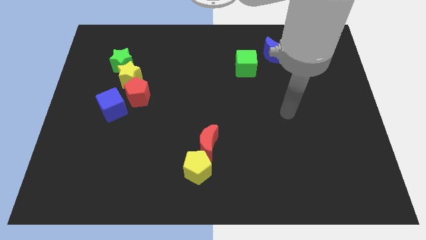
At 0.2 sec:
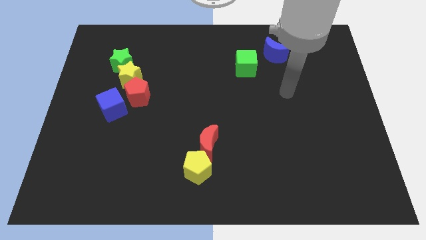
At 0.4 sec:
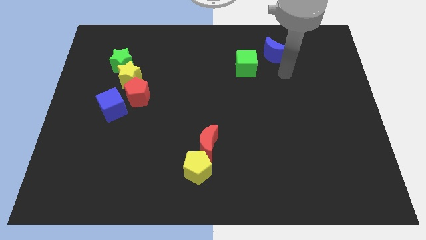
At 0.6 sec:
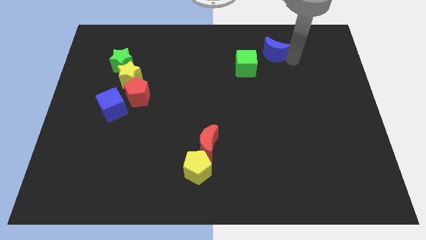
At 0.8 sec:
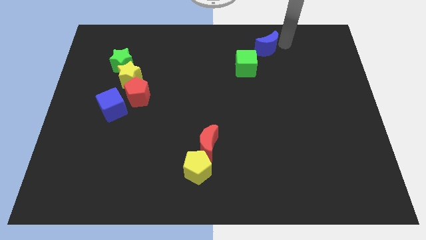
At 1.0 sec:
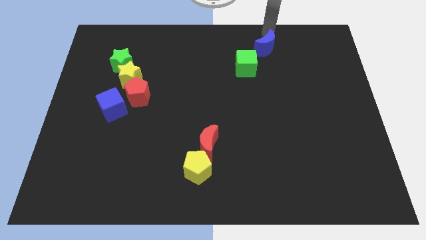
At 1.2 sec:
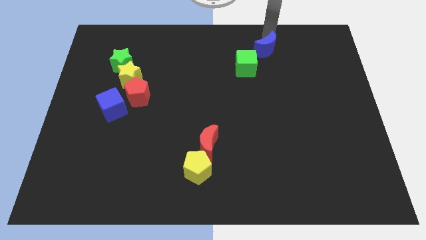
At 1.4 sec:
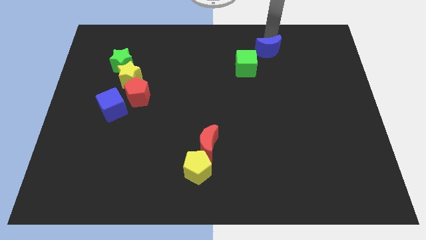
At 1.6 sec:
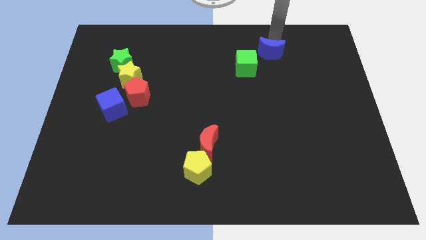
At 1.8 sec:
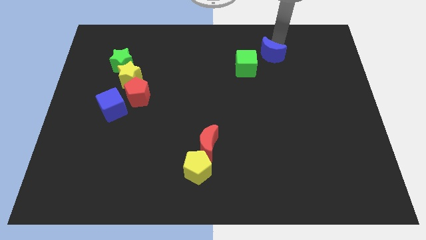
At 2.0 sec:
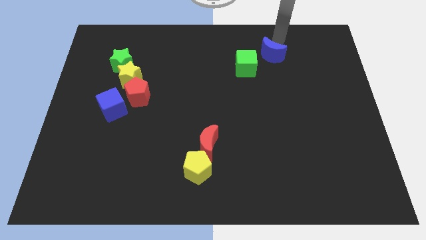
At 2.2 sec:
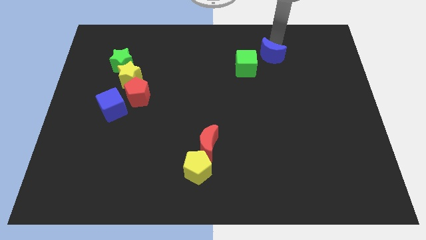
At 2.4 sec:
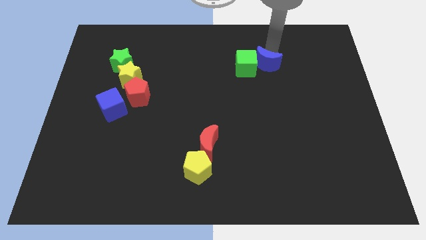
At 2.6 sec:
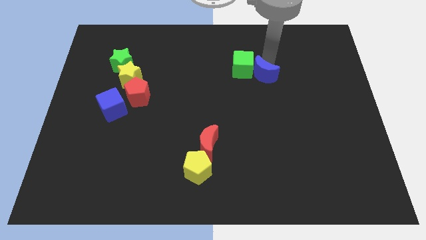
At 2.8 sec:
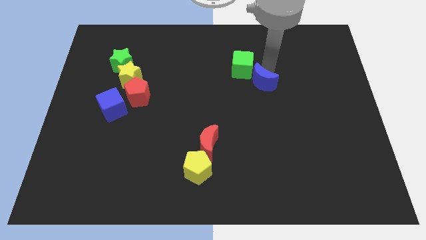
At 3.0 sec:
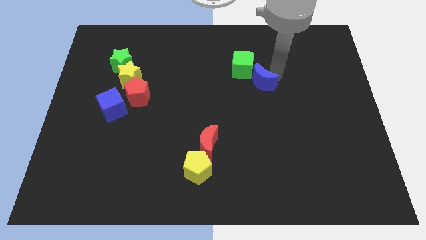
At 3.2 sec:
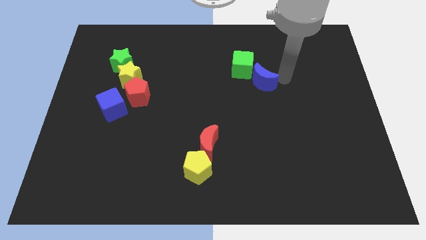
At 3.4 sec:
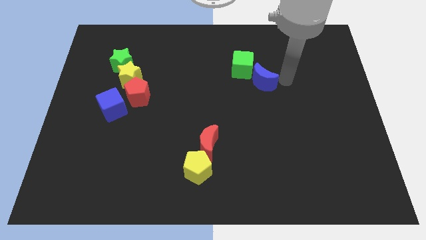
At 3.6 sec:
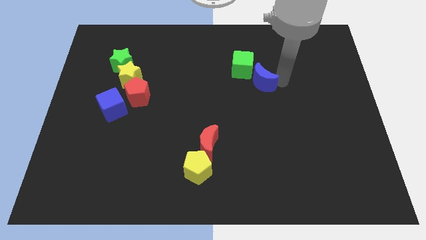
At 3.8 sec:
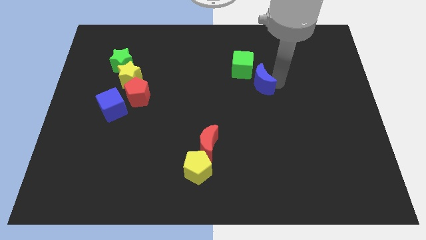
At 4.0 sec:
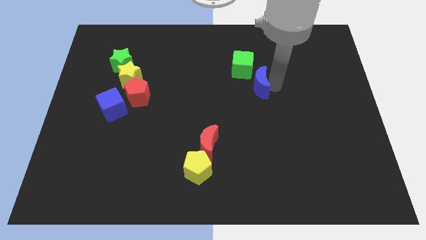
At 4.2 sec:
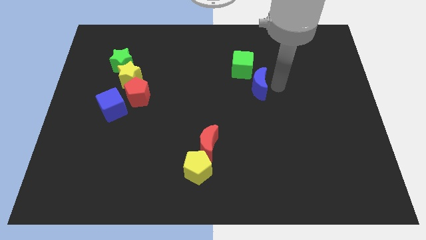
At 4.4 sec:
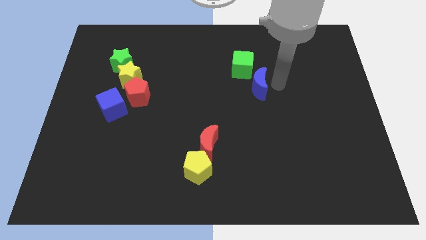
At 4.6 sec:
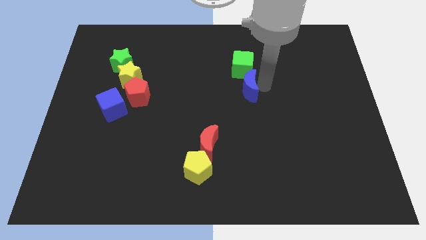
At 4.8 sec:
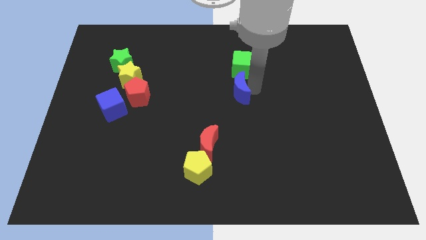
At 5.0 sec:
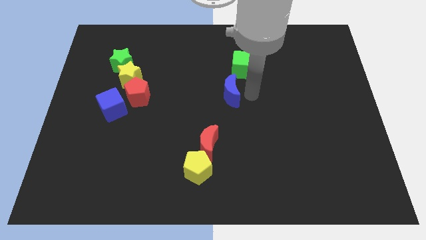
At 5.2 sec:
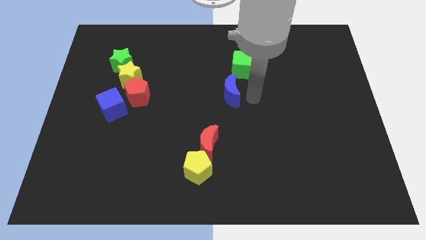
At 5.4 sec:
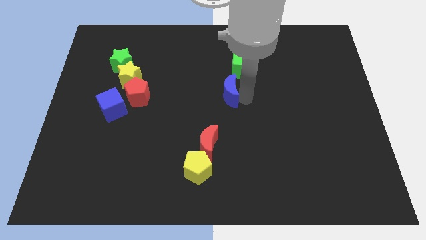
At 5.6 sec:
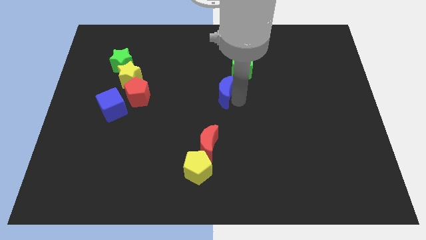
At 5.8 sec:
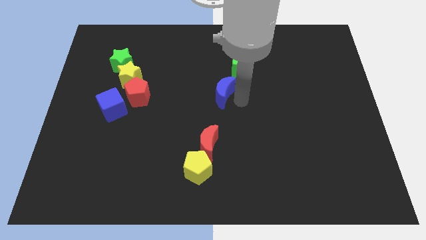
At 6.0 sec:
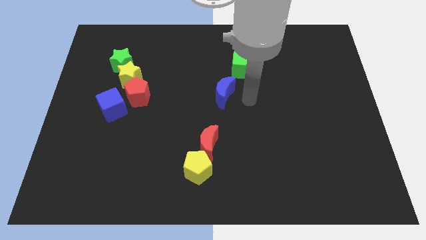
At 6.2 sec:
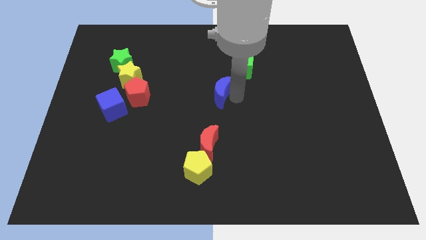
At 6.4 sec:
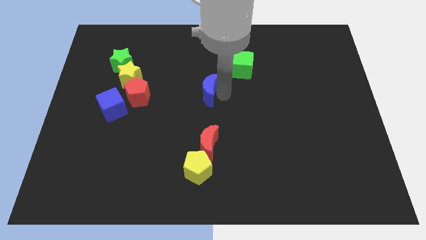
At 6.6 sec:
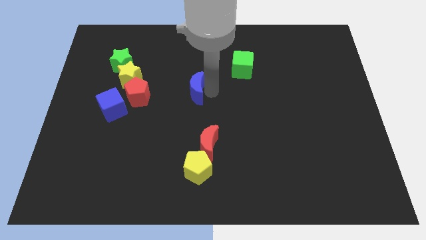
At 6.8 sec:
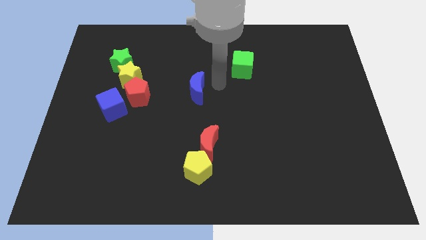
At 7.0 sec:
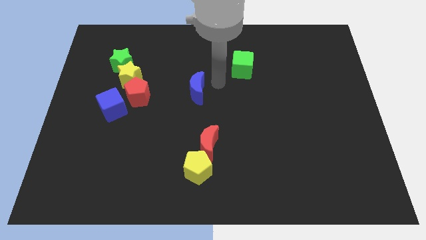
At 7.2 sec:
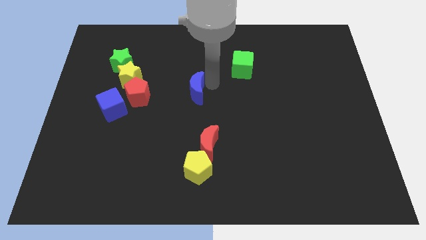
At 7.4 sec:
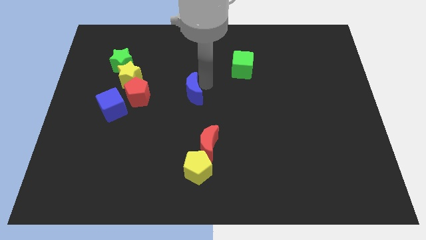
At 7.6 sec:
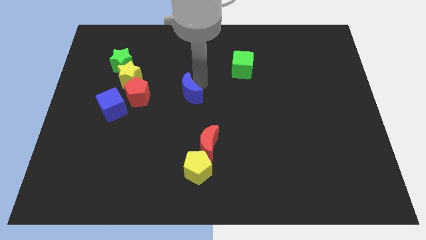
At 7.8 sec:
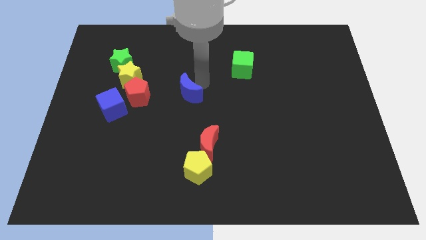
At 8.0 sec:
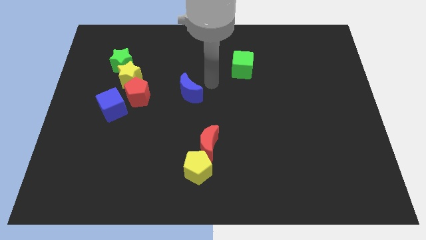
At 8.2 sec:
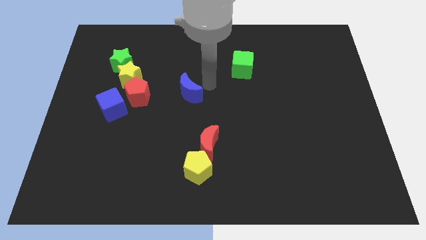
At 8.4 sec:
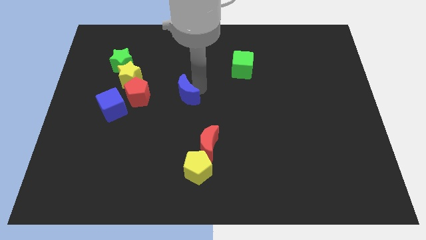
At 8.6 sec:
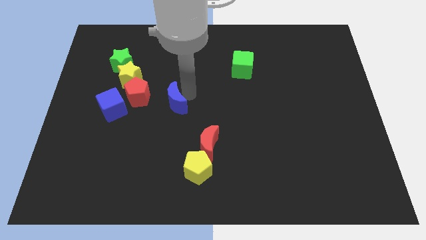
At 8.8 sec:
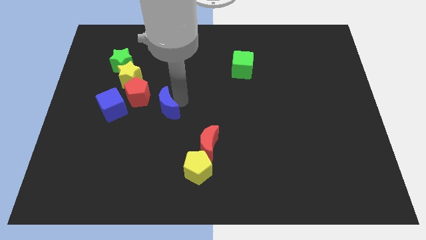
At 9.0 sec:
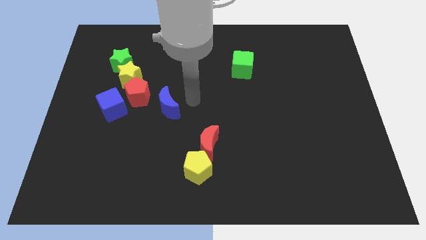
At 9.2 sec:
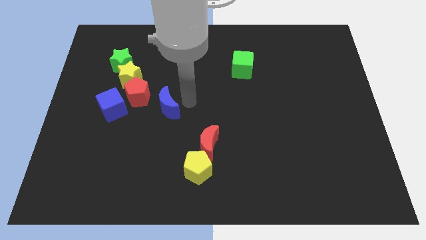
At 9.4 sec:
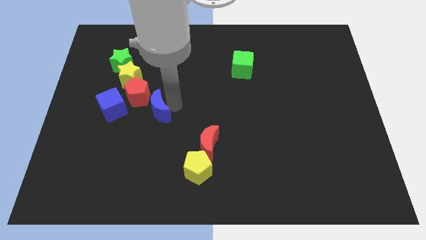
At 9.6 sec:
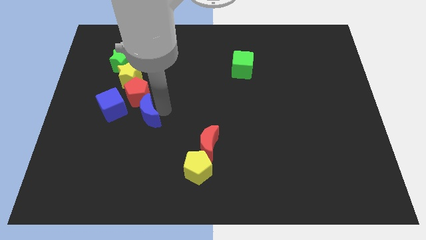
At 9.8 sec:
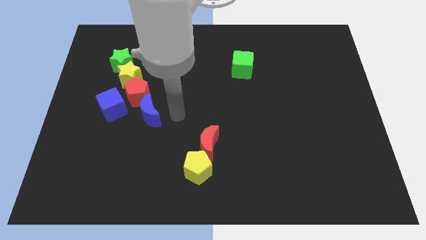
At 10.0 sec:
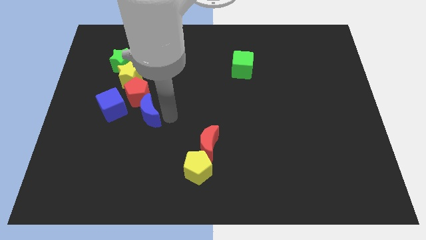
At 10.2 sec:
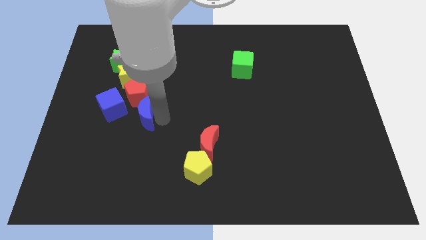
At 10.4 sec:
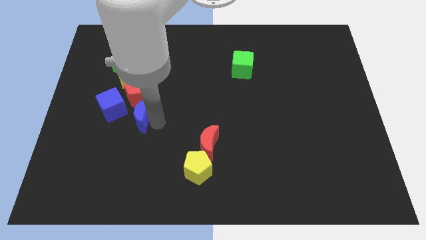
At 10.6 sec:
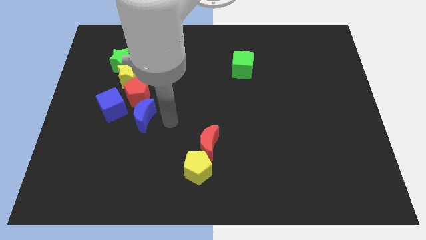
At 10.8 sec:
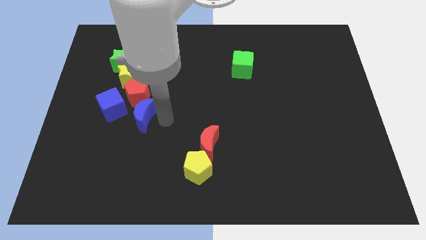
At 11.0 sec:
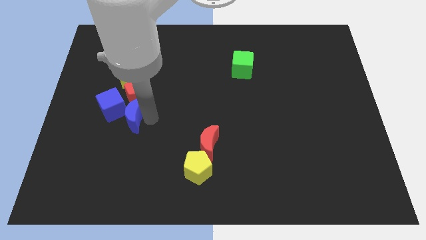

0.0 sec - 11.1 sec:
move the blue moon diagonally down and to the left of the red pentagon

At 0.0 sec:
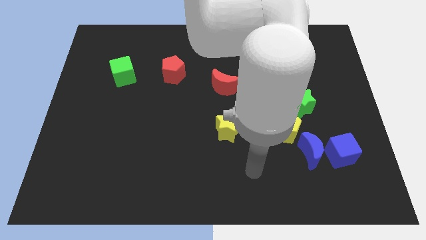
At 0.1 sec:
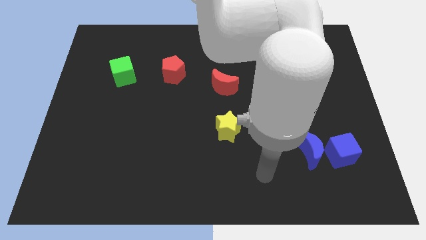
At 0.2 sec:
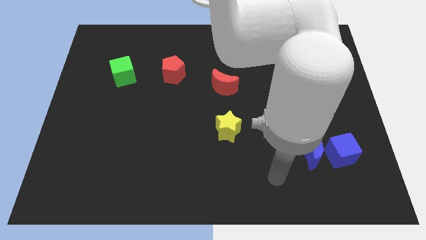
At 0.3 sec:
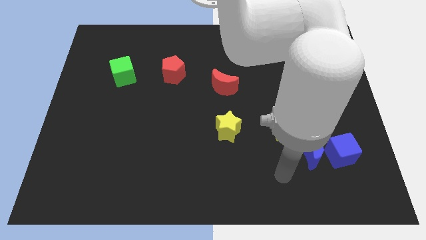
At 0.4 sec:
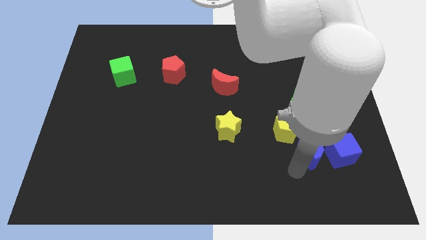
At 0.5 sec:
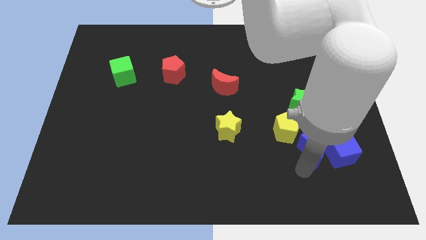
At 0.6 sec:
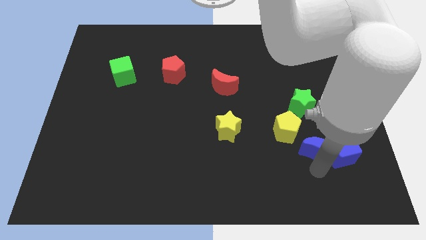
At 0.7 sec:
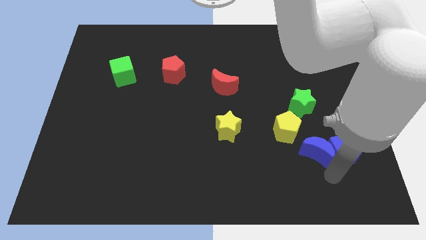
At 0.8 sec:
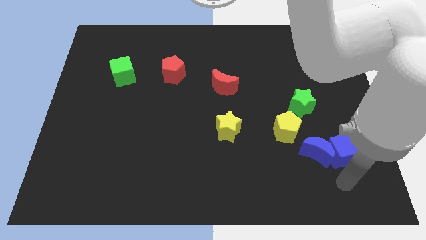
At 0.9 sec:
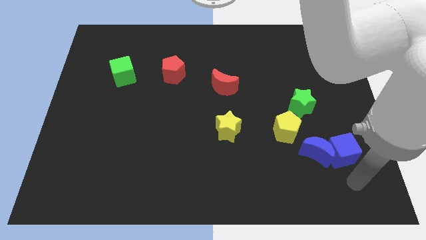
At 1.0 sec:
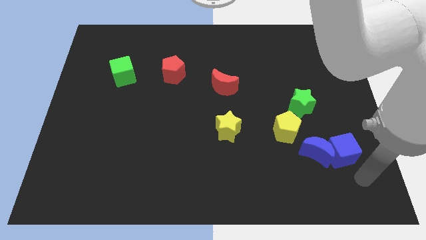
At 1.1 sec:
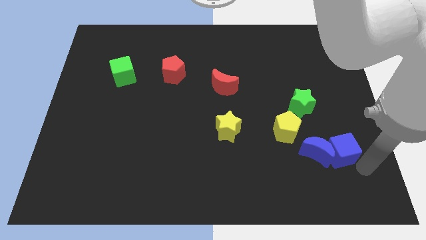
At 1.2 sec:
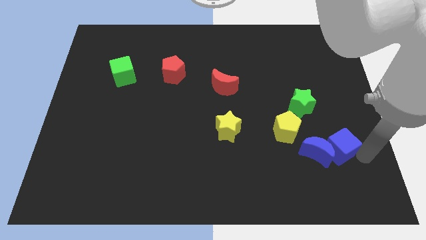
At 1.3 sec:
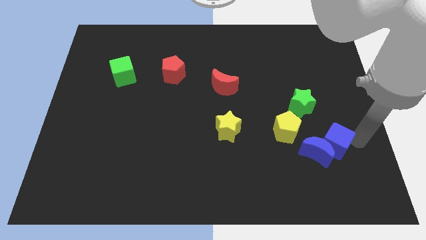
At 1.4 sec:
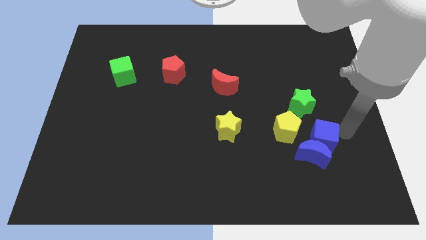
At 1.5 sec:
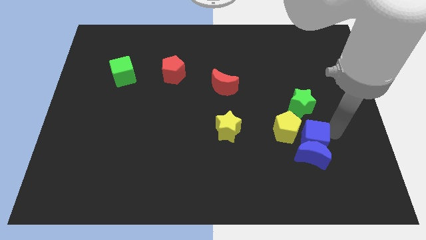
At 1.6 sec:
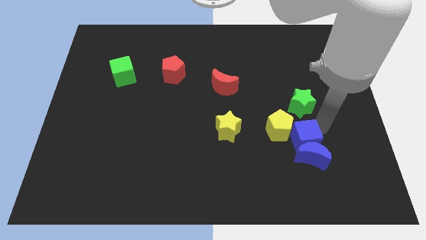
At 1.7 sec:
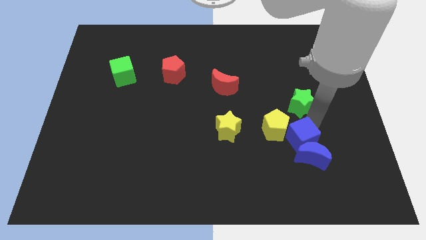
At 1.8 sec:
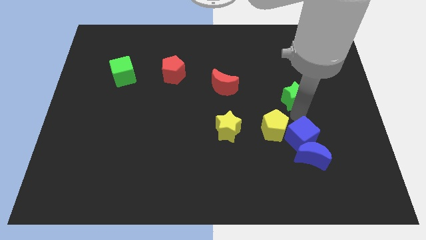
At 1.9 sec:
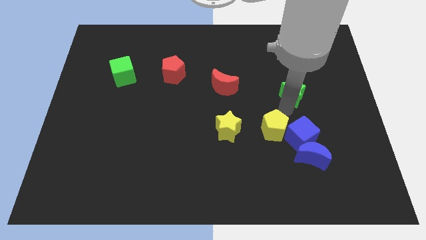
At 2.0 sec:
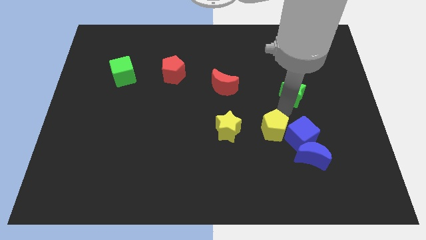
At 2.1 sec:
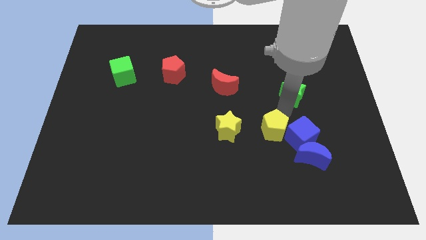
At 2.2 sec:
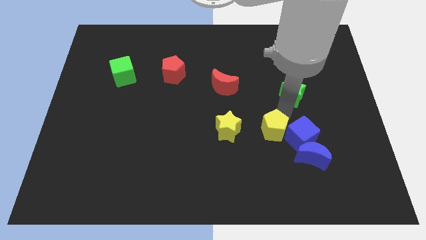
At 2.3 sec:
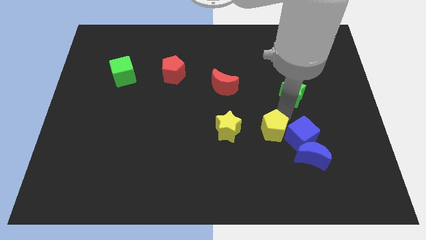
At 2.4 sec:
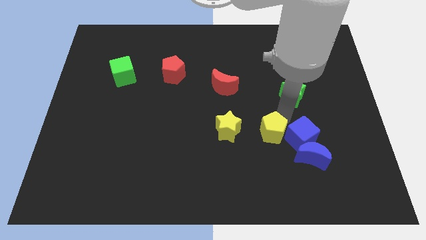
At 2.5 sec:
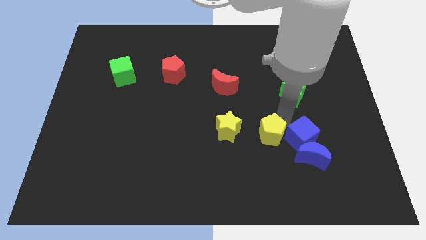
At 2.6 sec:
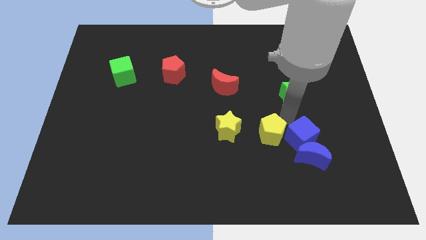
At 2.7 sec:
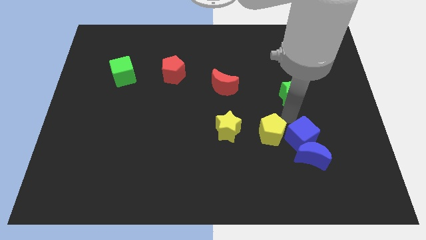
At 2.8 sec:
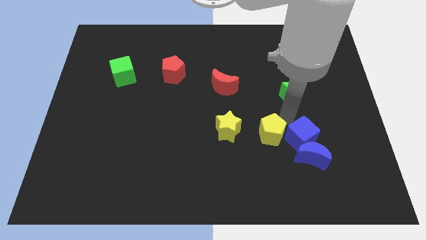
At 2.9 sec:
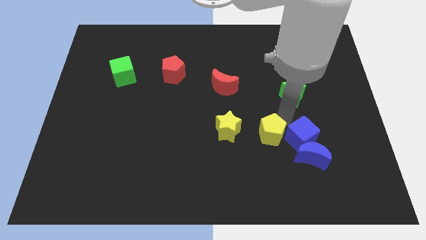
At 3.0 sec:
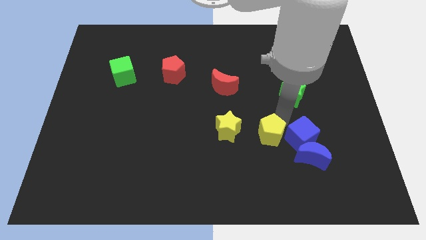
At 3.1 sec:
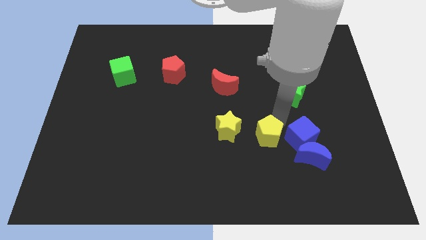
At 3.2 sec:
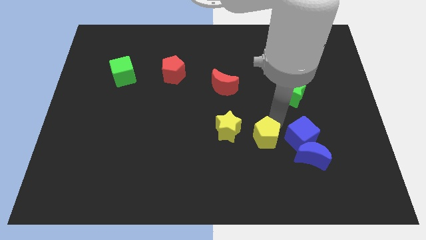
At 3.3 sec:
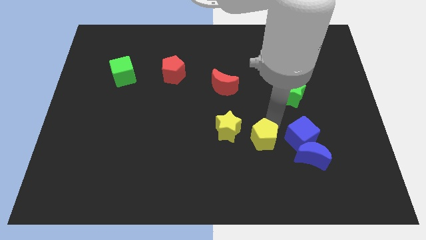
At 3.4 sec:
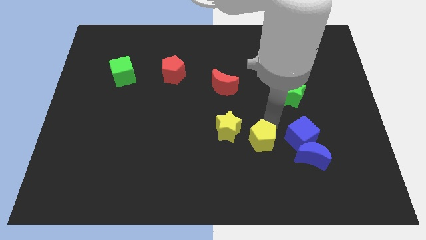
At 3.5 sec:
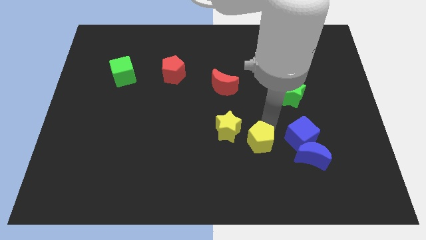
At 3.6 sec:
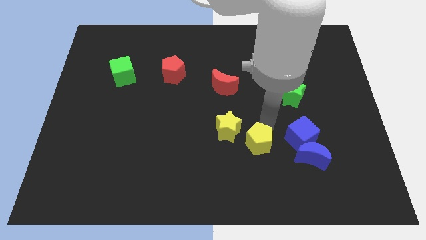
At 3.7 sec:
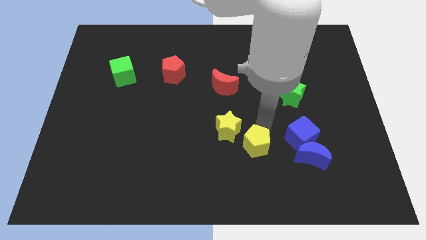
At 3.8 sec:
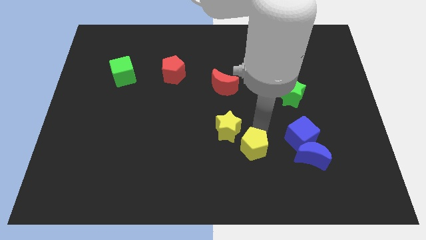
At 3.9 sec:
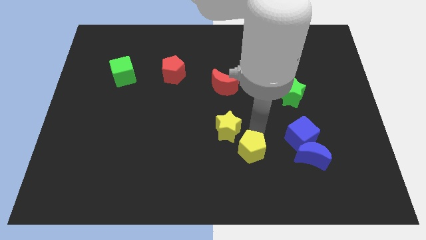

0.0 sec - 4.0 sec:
put the yellow pentagon to the bottom of the yellow star
